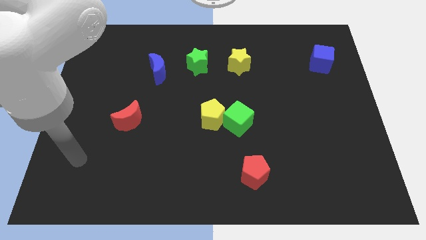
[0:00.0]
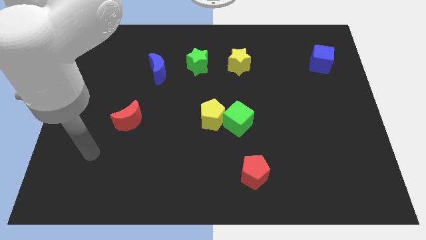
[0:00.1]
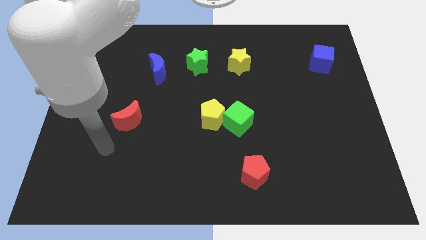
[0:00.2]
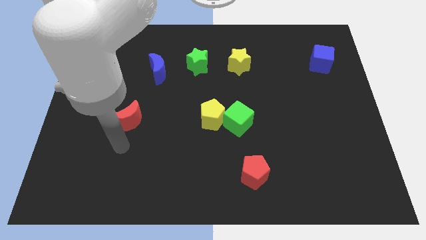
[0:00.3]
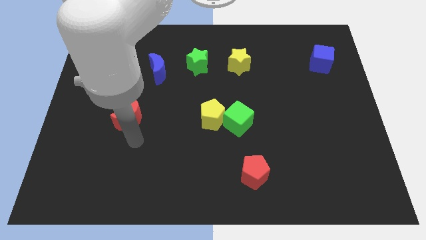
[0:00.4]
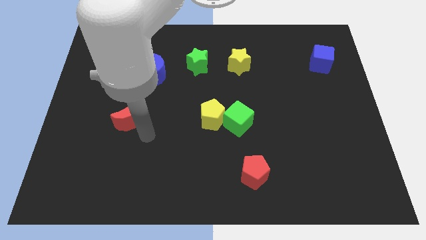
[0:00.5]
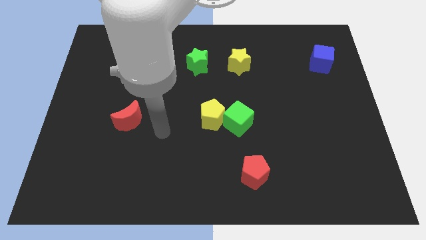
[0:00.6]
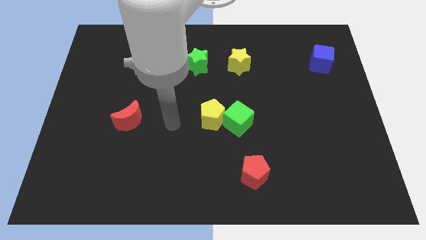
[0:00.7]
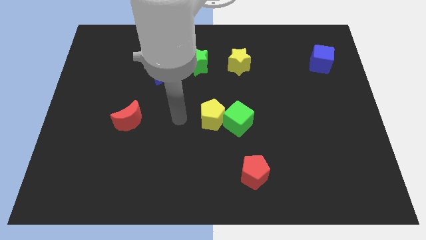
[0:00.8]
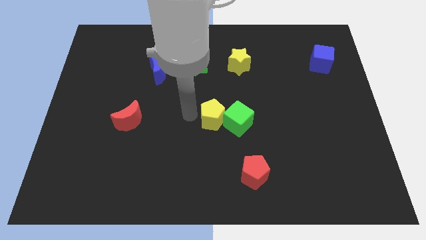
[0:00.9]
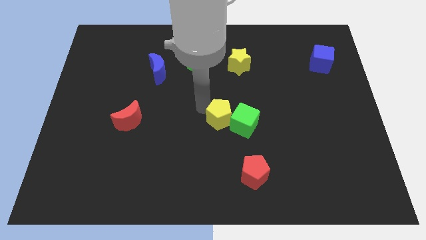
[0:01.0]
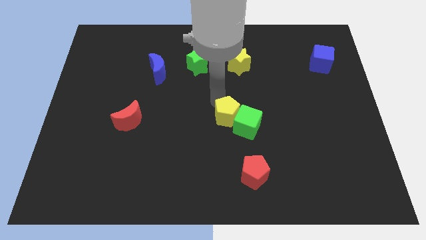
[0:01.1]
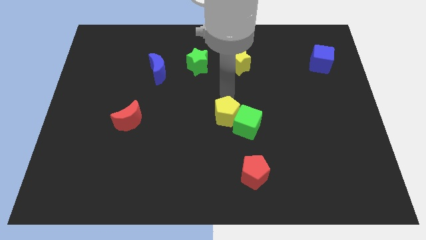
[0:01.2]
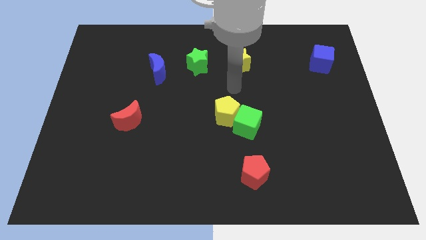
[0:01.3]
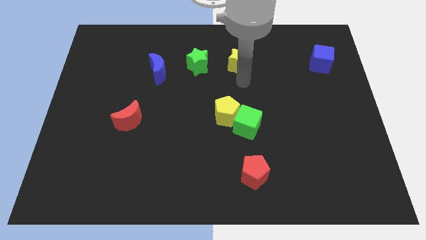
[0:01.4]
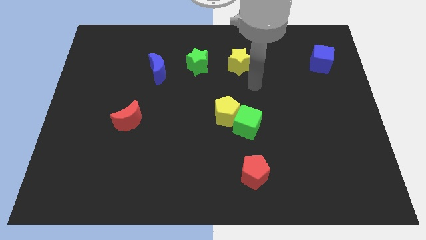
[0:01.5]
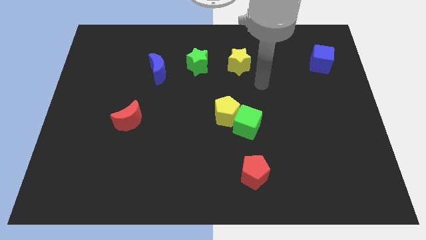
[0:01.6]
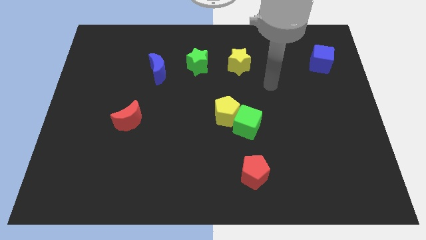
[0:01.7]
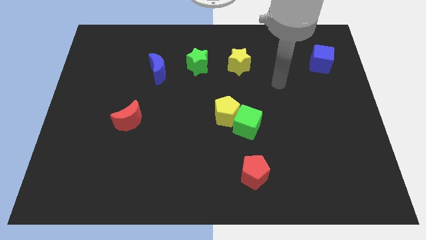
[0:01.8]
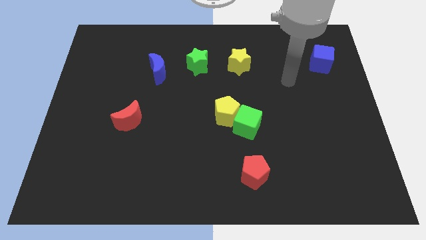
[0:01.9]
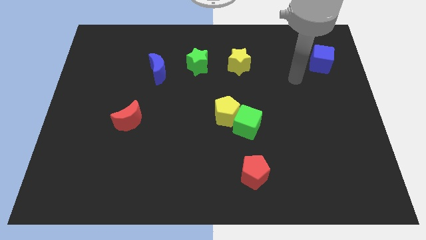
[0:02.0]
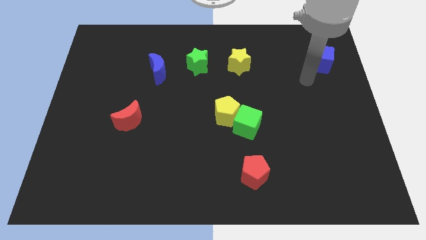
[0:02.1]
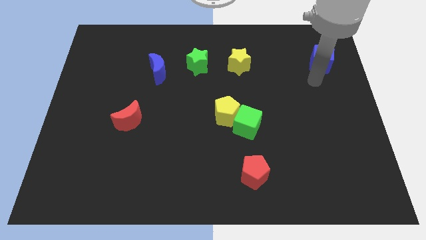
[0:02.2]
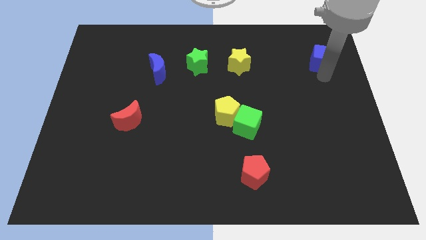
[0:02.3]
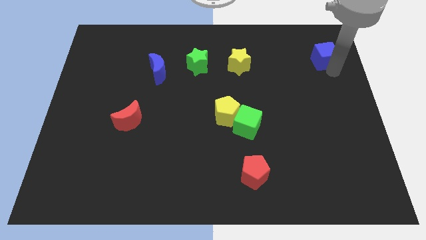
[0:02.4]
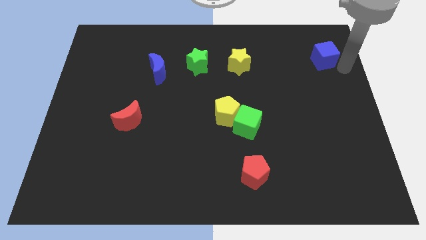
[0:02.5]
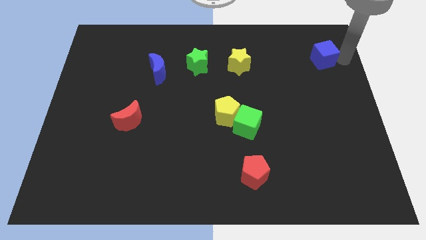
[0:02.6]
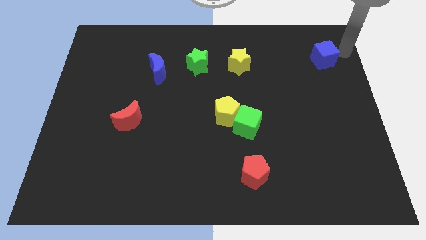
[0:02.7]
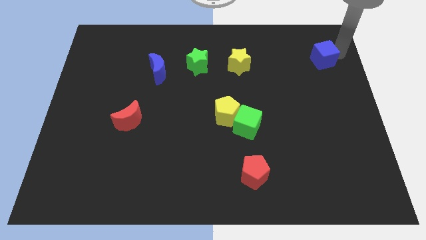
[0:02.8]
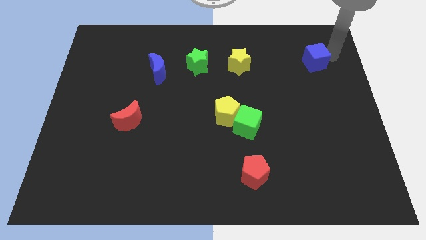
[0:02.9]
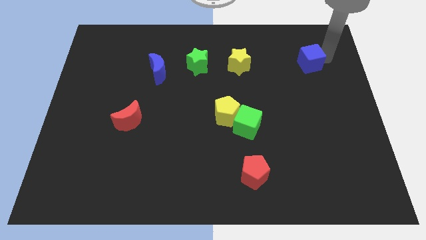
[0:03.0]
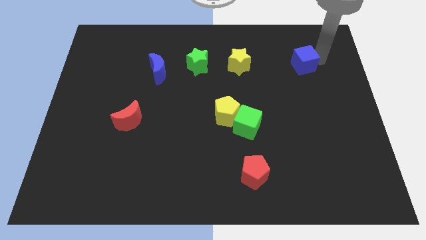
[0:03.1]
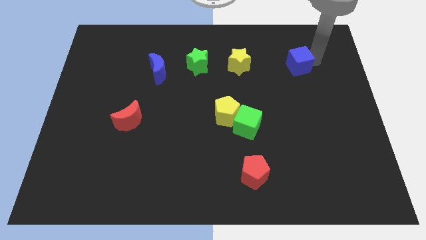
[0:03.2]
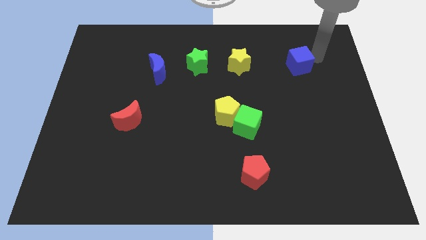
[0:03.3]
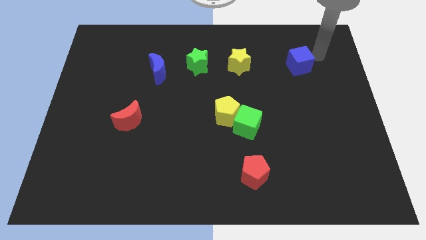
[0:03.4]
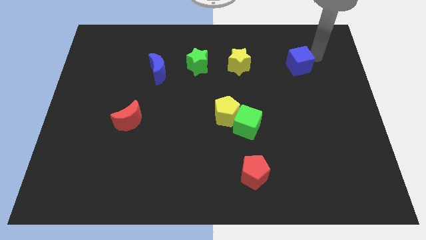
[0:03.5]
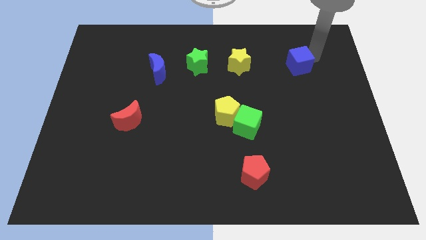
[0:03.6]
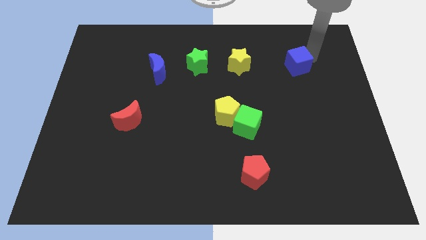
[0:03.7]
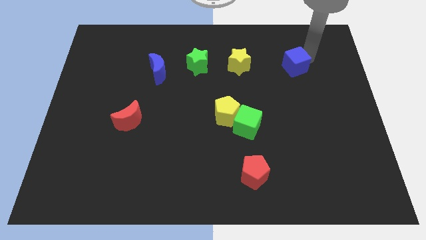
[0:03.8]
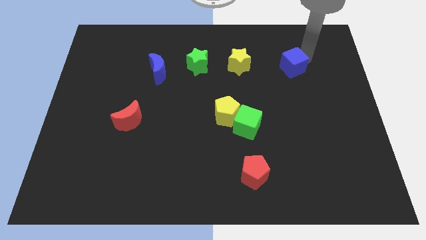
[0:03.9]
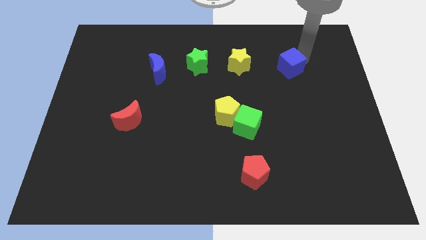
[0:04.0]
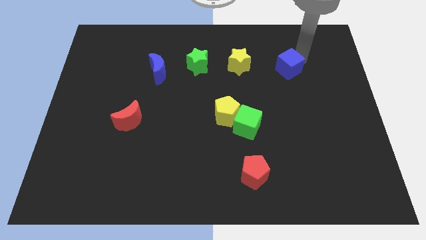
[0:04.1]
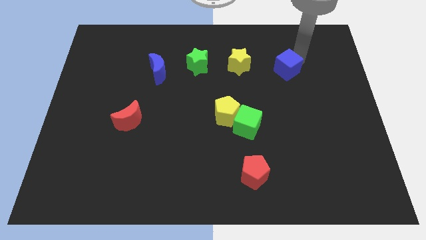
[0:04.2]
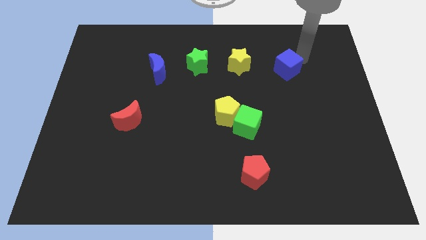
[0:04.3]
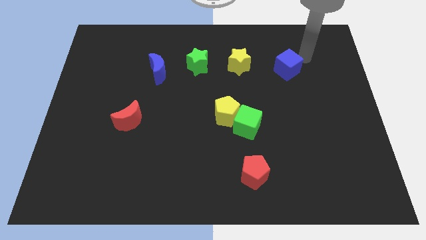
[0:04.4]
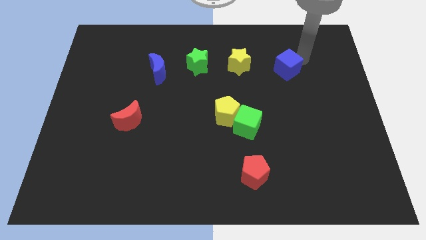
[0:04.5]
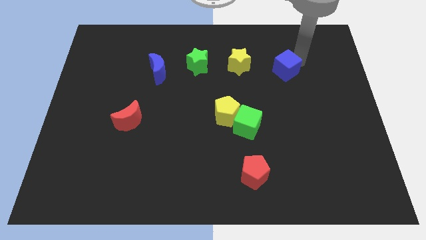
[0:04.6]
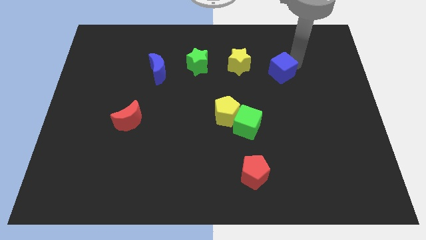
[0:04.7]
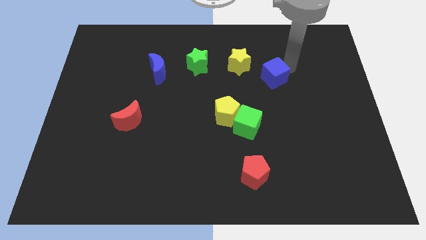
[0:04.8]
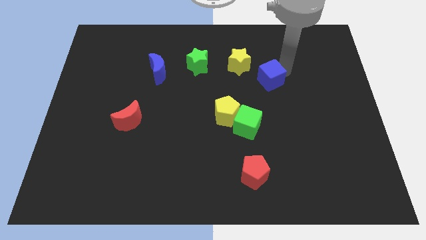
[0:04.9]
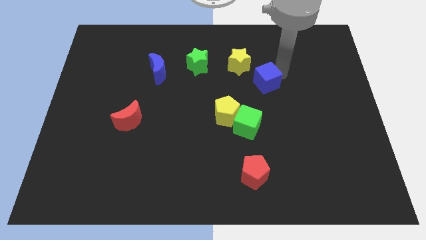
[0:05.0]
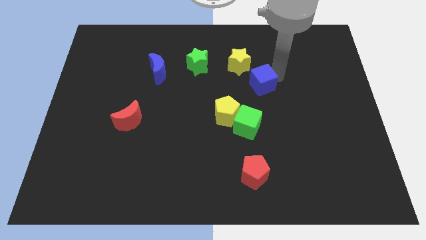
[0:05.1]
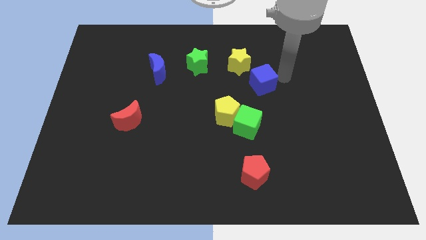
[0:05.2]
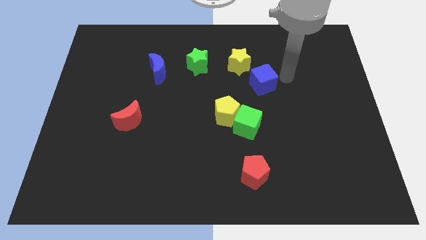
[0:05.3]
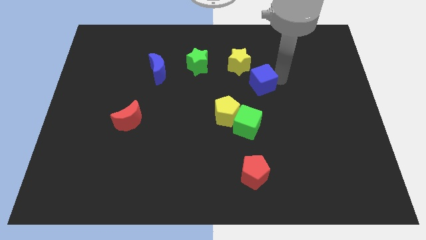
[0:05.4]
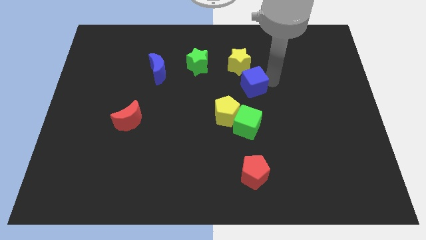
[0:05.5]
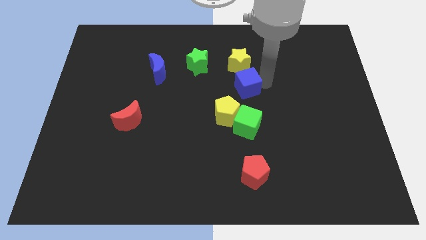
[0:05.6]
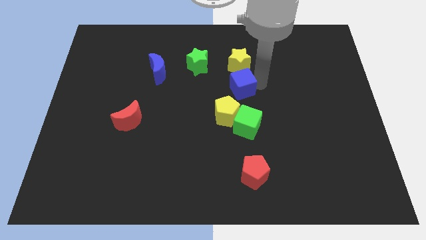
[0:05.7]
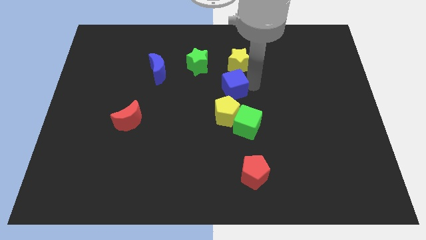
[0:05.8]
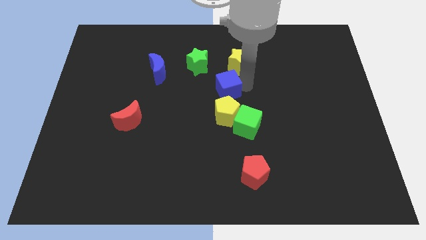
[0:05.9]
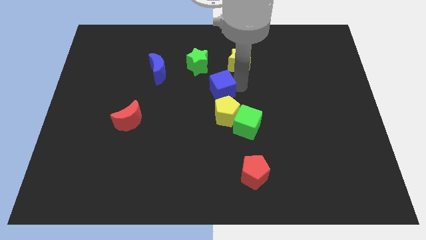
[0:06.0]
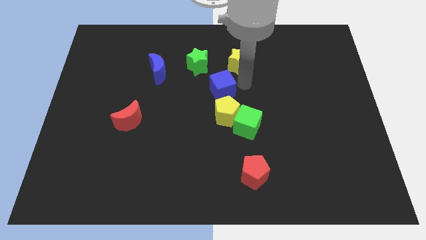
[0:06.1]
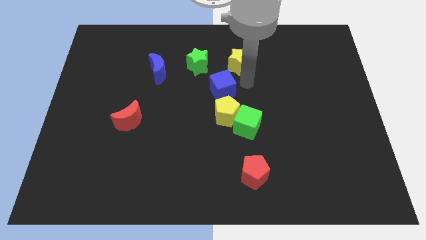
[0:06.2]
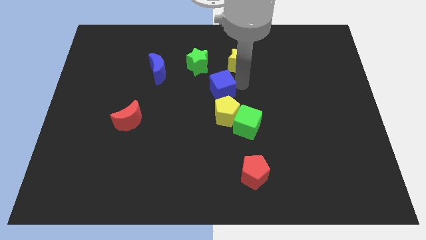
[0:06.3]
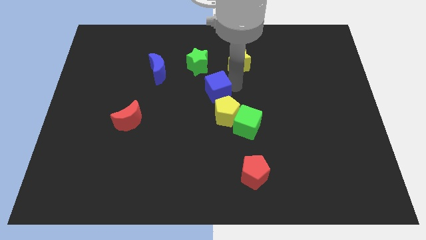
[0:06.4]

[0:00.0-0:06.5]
push the blue cube below the green star

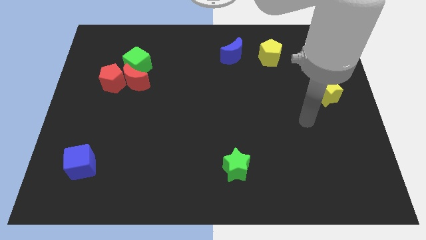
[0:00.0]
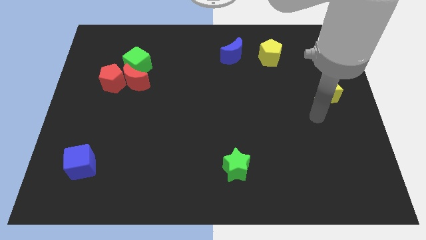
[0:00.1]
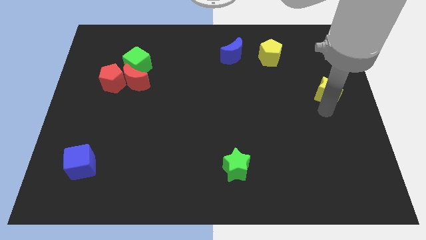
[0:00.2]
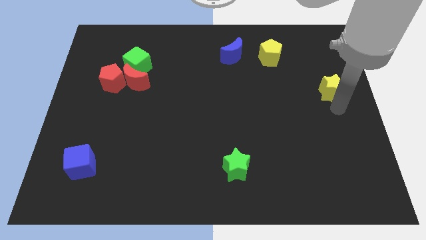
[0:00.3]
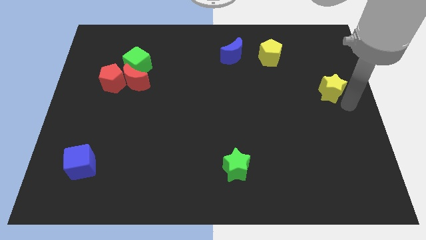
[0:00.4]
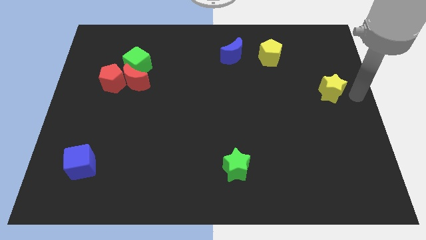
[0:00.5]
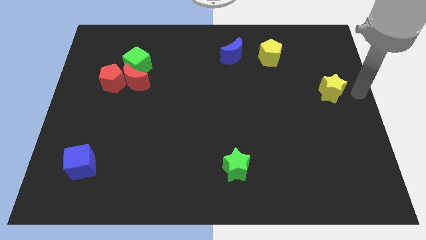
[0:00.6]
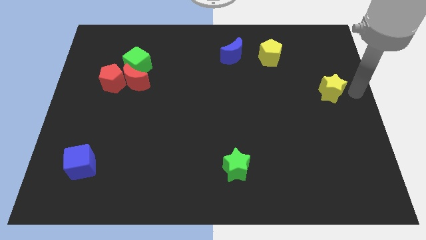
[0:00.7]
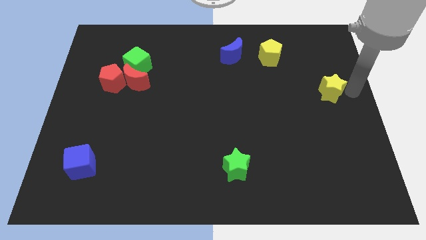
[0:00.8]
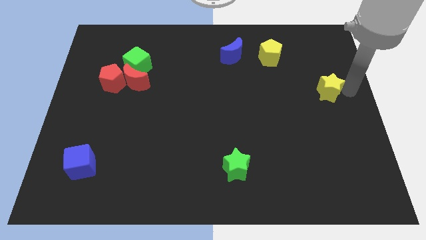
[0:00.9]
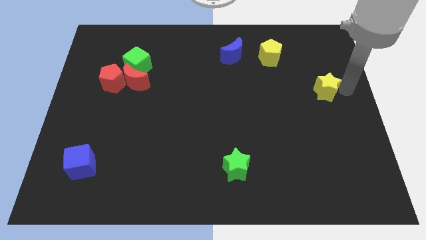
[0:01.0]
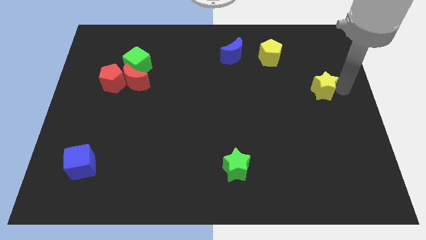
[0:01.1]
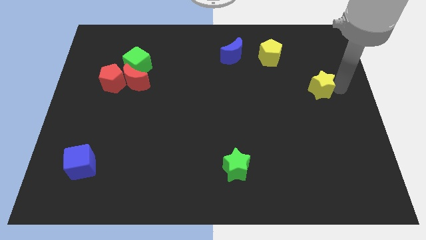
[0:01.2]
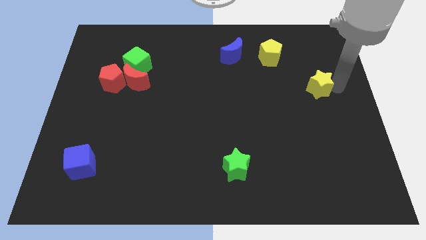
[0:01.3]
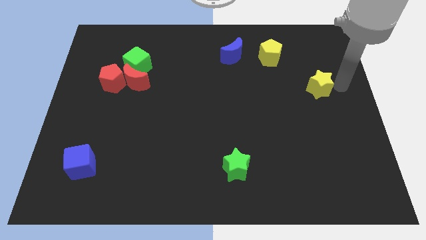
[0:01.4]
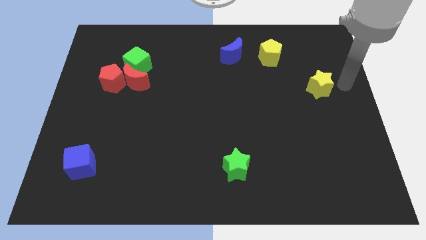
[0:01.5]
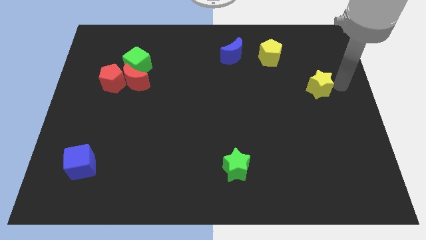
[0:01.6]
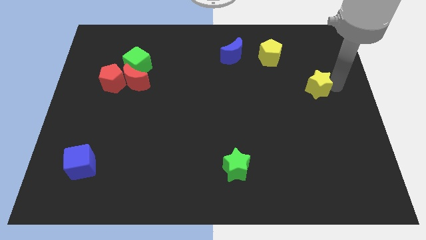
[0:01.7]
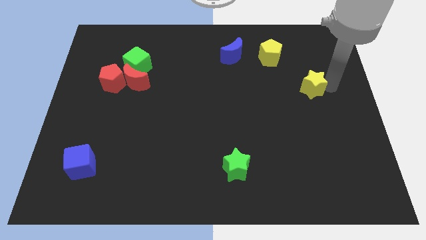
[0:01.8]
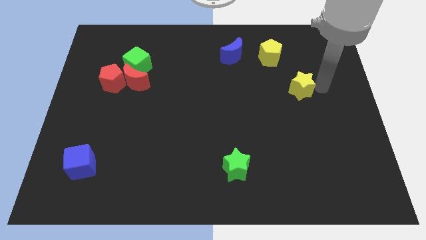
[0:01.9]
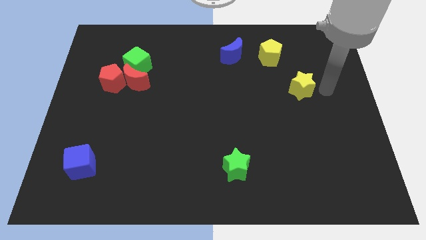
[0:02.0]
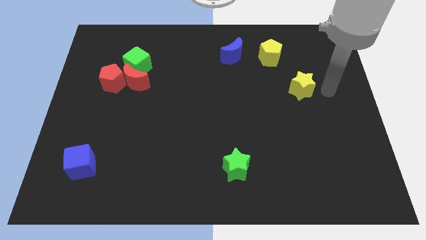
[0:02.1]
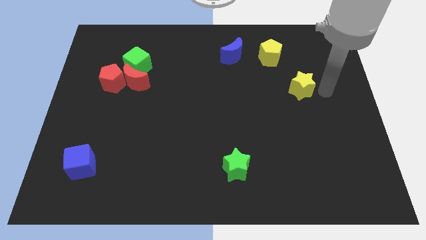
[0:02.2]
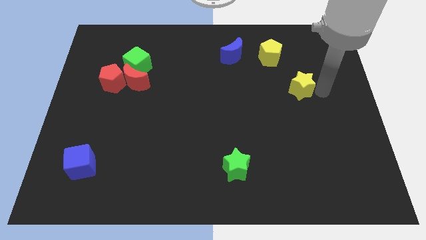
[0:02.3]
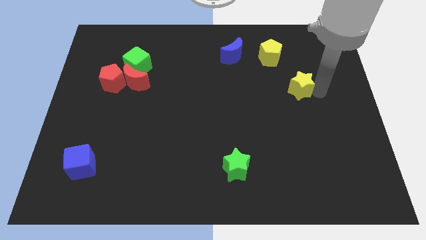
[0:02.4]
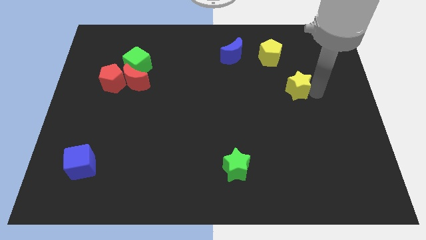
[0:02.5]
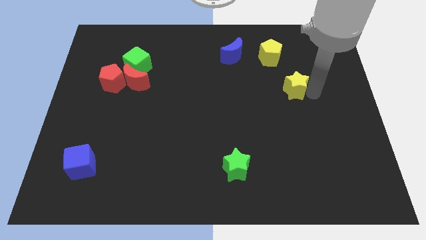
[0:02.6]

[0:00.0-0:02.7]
put the yellow star below the yellow pentagon
